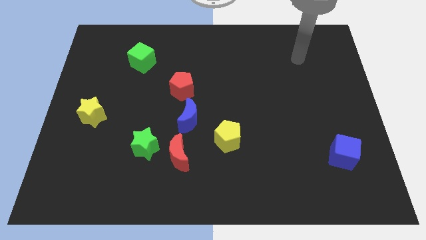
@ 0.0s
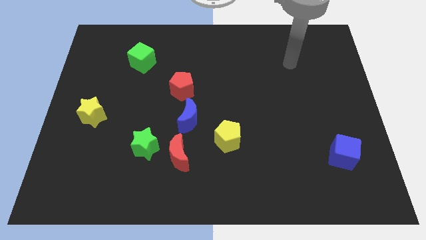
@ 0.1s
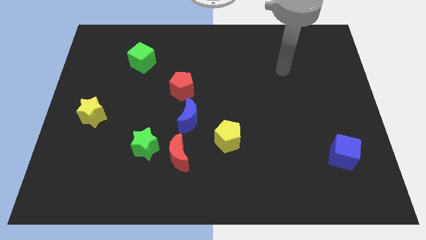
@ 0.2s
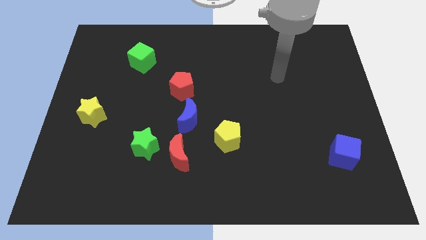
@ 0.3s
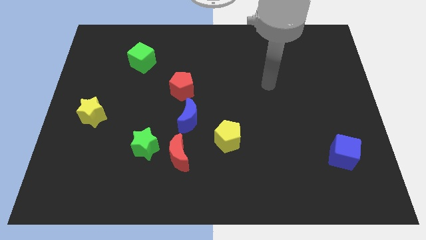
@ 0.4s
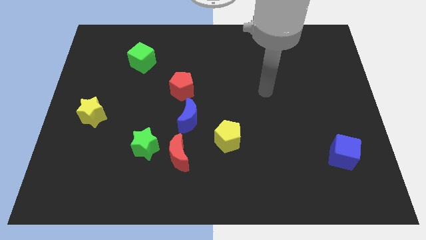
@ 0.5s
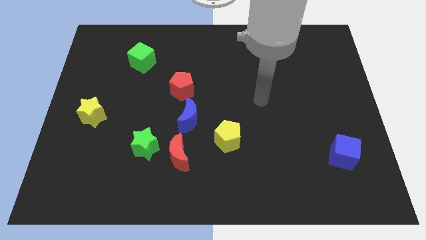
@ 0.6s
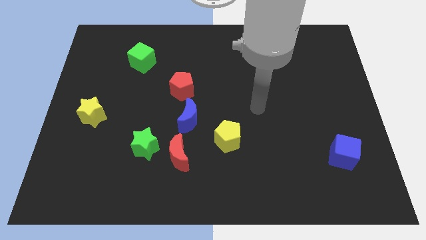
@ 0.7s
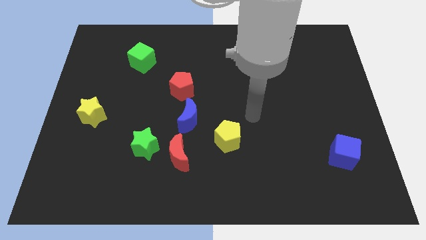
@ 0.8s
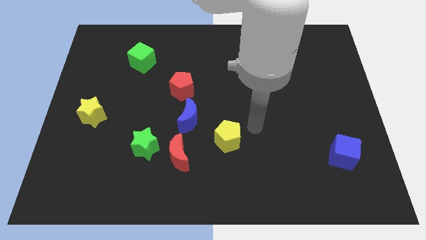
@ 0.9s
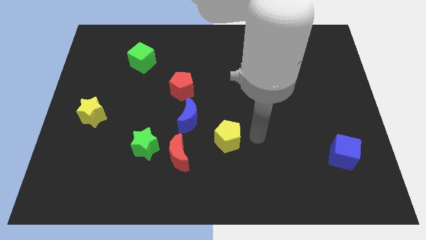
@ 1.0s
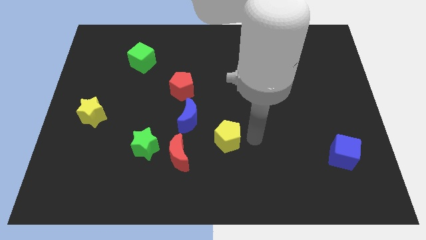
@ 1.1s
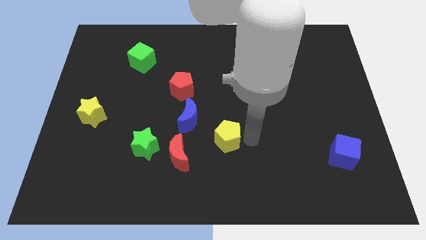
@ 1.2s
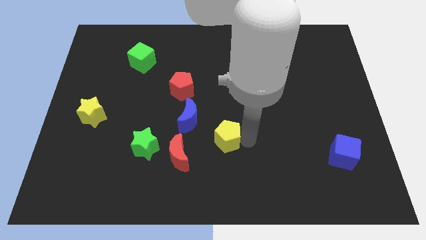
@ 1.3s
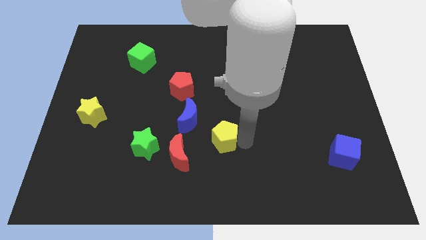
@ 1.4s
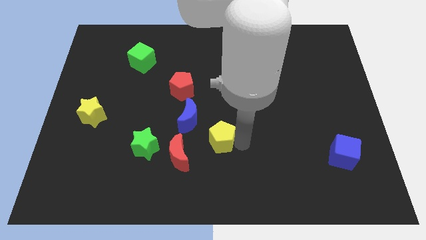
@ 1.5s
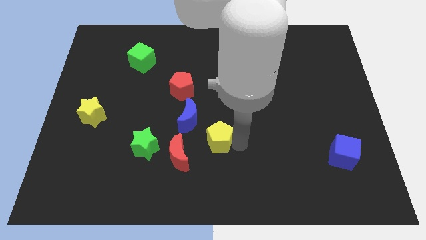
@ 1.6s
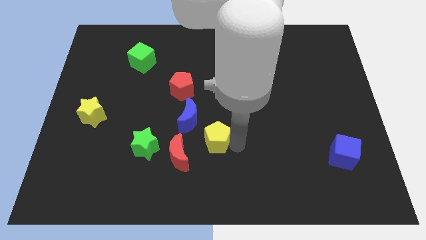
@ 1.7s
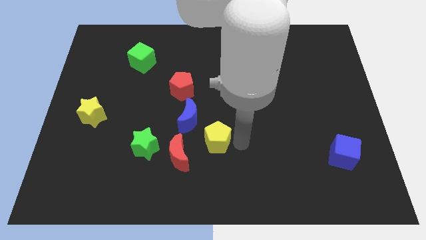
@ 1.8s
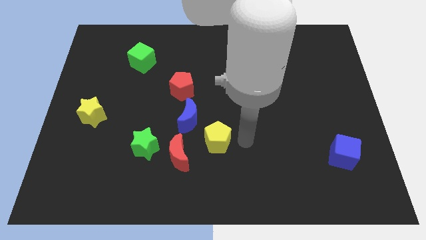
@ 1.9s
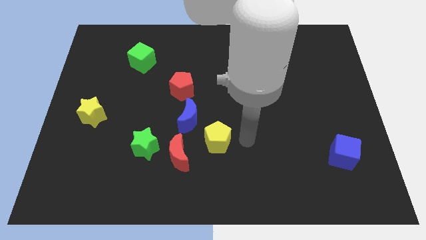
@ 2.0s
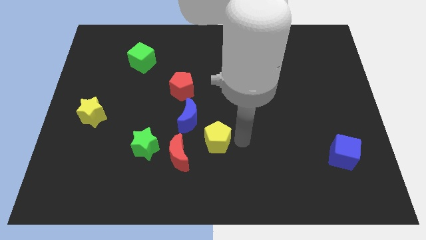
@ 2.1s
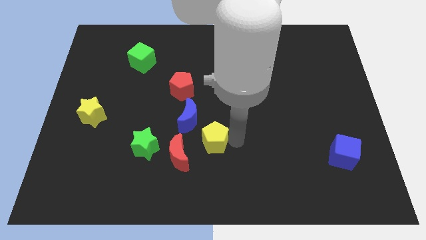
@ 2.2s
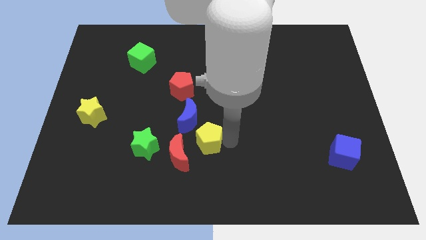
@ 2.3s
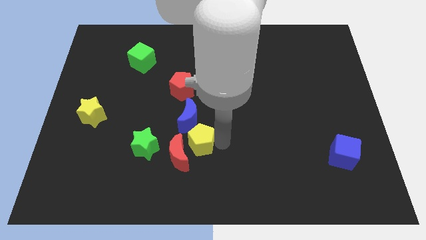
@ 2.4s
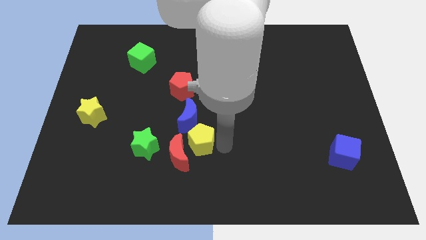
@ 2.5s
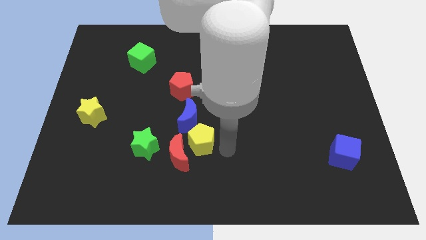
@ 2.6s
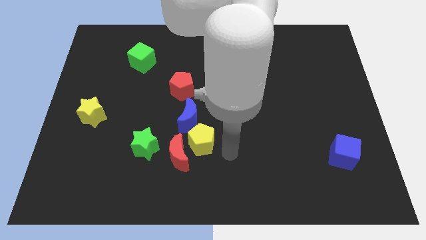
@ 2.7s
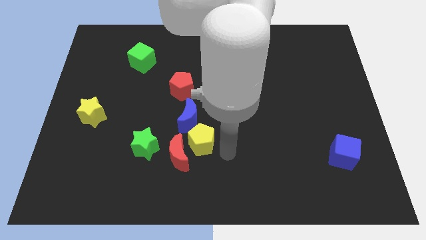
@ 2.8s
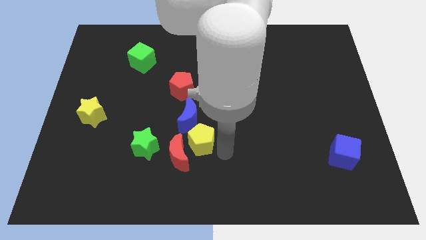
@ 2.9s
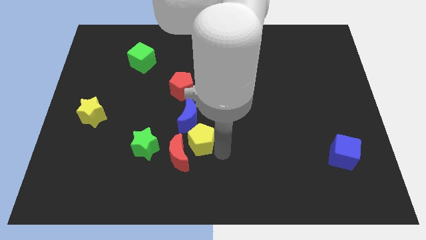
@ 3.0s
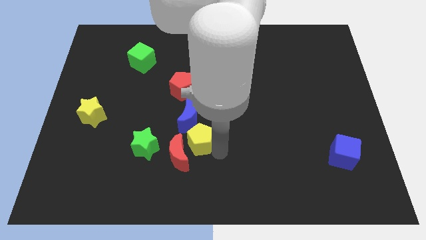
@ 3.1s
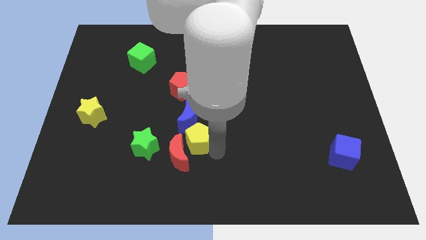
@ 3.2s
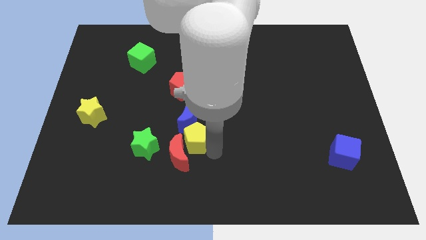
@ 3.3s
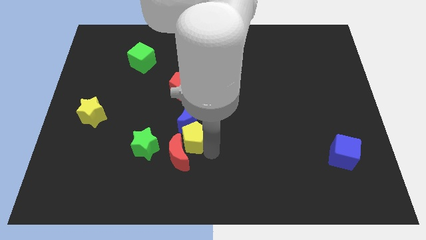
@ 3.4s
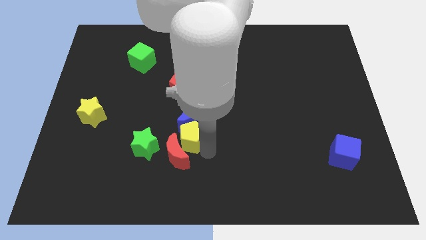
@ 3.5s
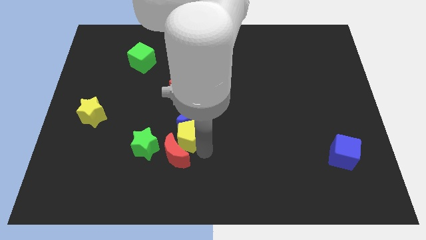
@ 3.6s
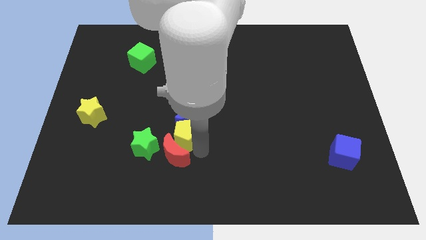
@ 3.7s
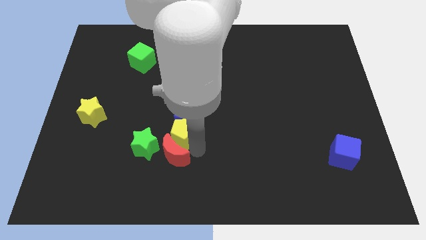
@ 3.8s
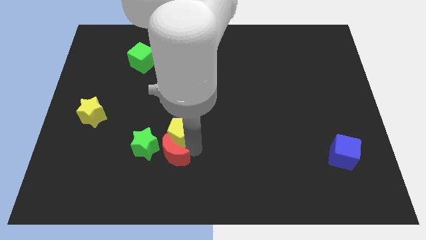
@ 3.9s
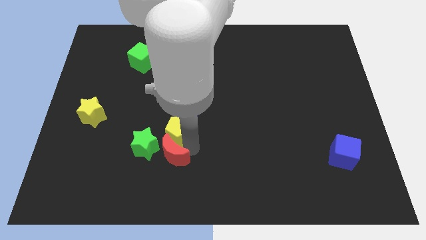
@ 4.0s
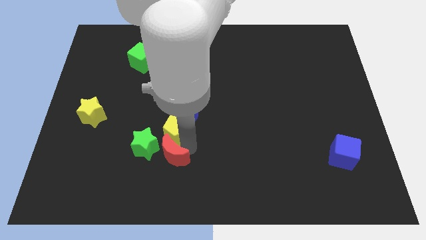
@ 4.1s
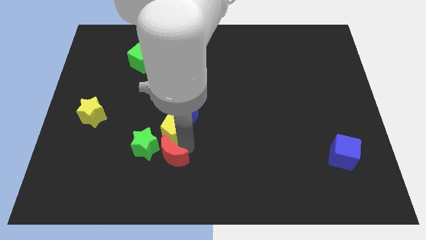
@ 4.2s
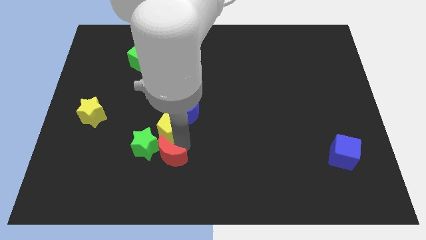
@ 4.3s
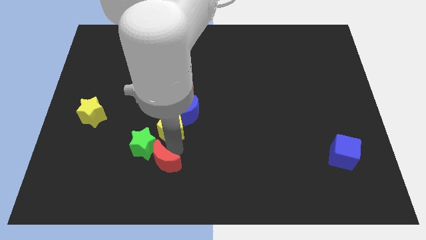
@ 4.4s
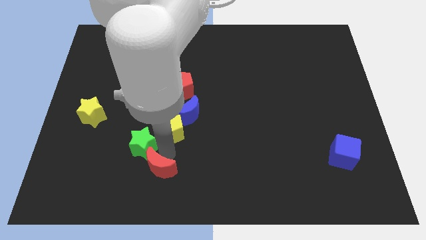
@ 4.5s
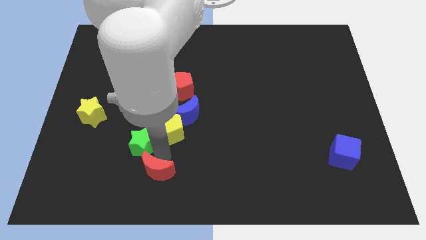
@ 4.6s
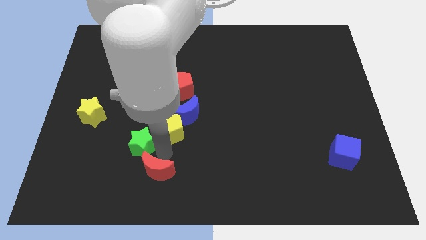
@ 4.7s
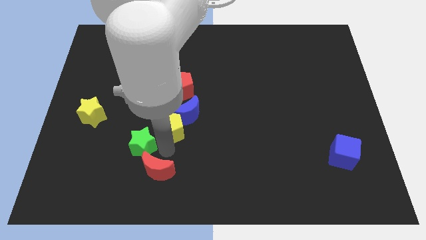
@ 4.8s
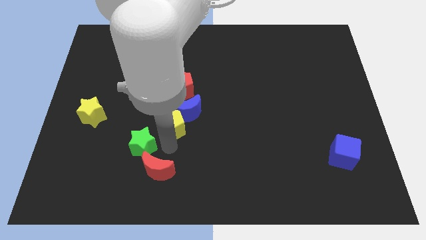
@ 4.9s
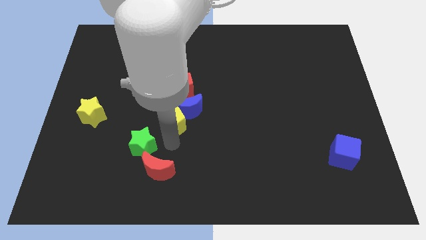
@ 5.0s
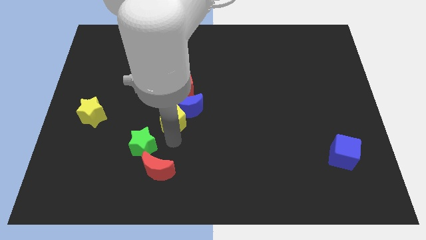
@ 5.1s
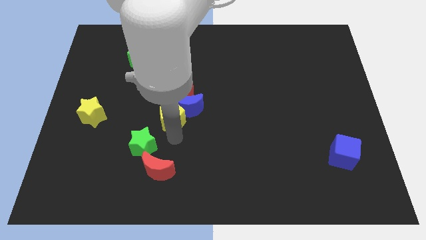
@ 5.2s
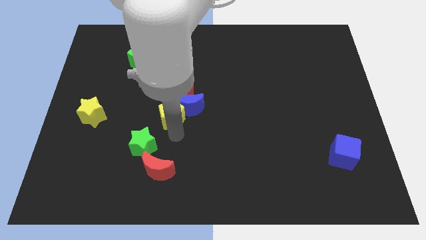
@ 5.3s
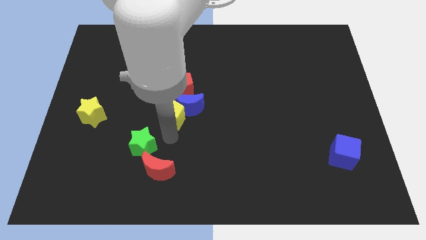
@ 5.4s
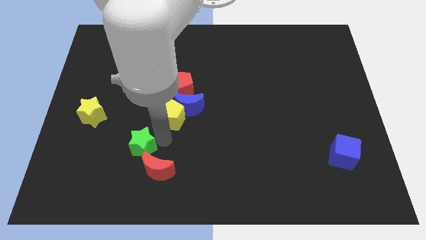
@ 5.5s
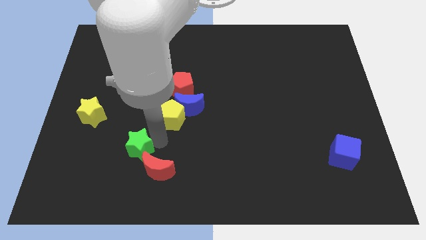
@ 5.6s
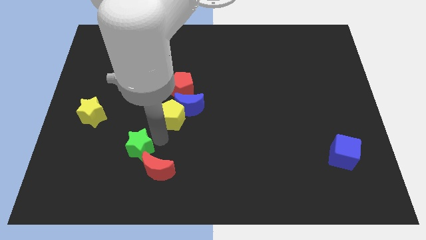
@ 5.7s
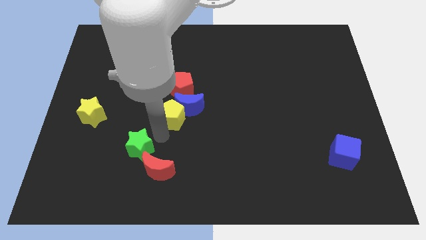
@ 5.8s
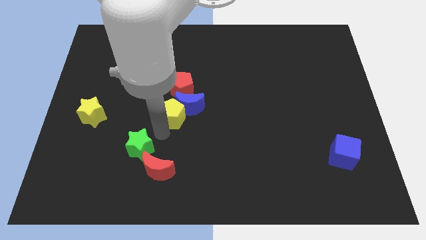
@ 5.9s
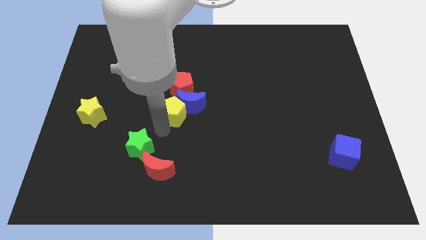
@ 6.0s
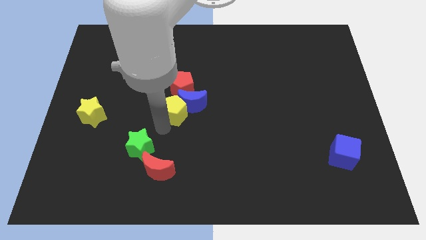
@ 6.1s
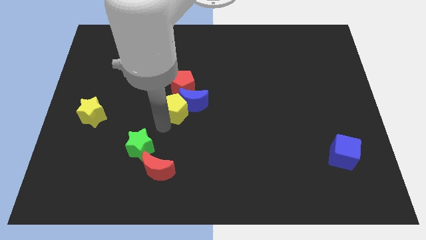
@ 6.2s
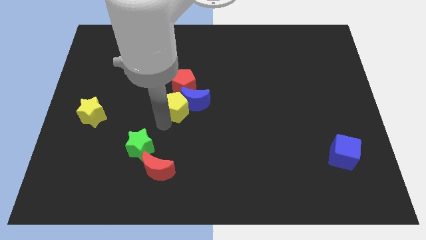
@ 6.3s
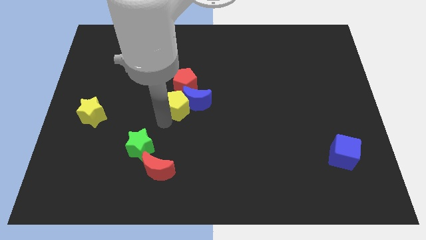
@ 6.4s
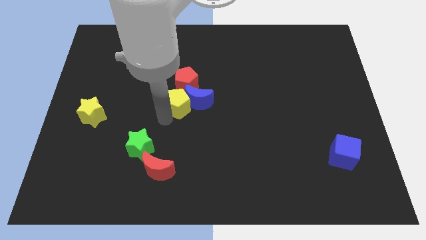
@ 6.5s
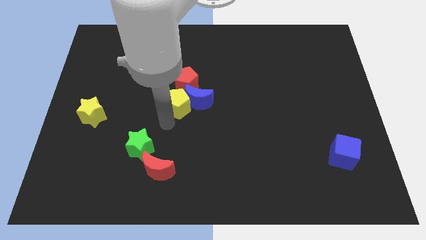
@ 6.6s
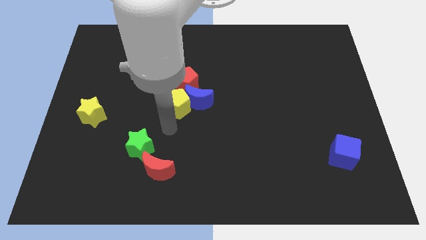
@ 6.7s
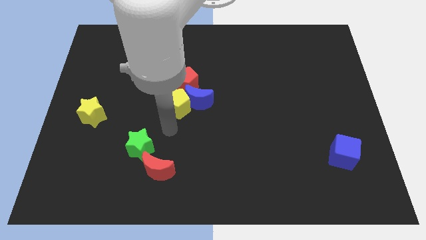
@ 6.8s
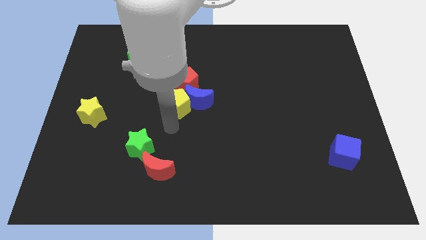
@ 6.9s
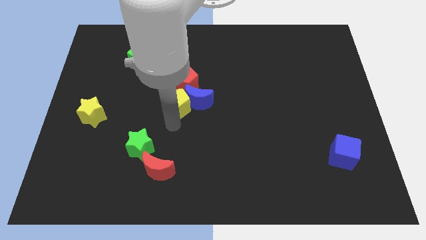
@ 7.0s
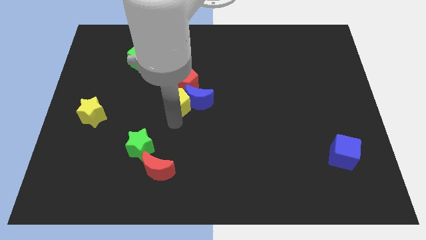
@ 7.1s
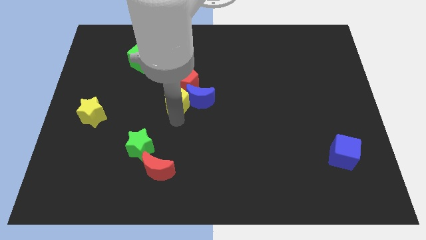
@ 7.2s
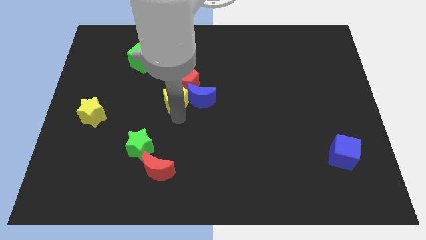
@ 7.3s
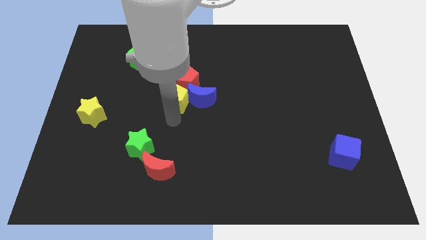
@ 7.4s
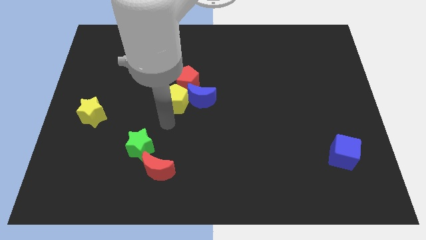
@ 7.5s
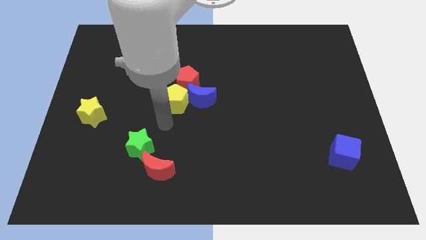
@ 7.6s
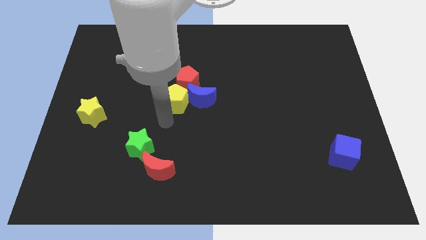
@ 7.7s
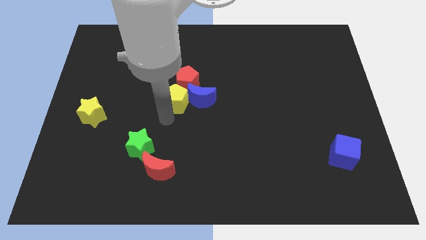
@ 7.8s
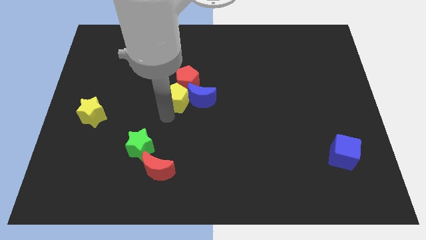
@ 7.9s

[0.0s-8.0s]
put the yellow pentagon to the red pentagon
